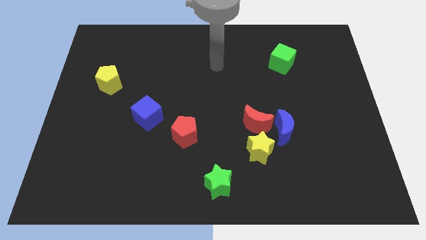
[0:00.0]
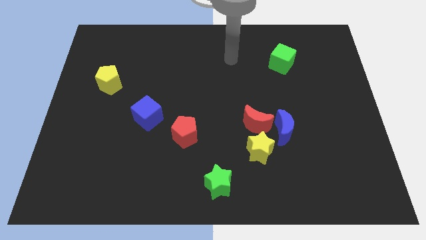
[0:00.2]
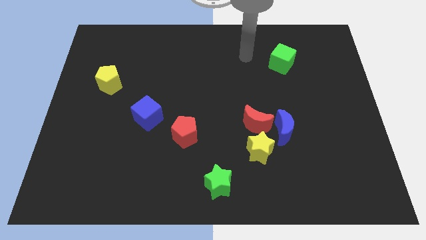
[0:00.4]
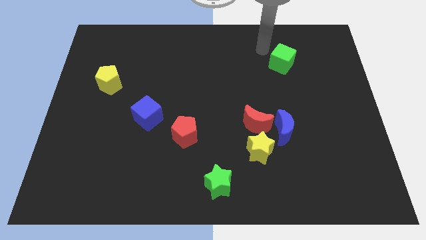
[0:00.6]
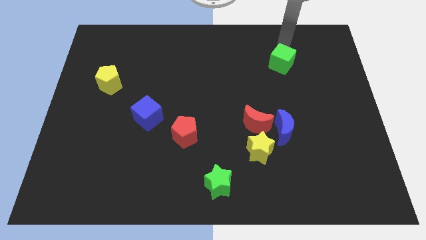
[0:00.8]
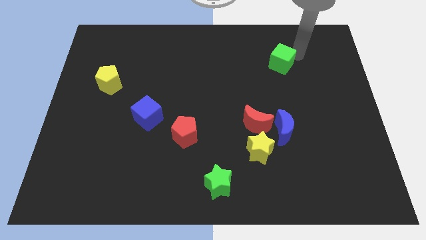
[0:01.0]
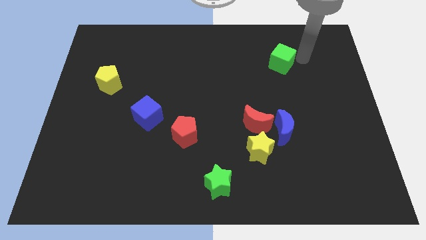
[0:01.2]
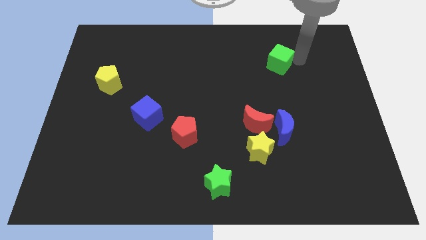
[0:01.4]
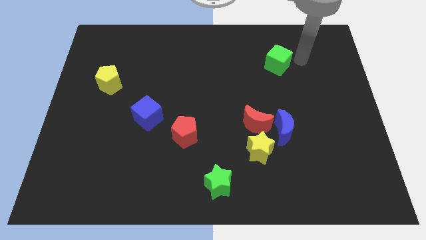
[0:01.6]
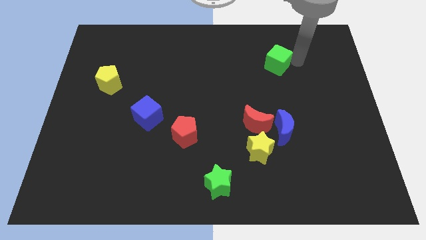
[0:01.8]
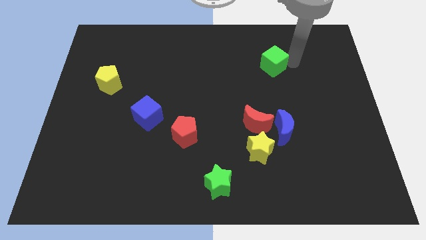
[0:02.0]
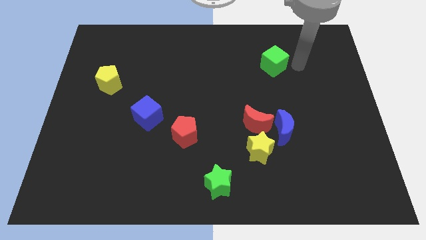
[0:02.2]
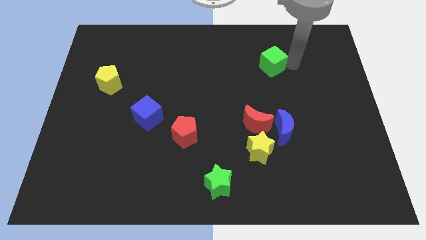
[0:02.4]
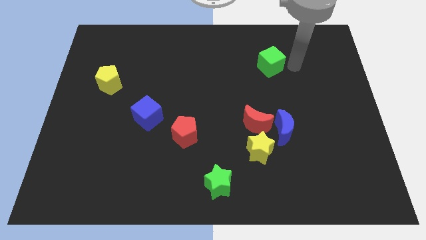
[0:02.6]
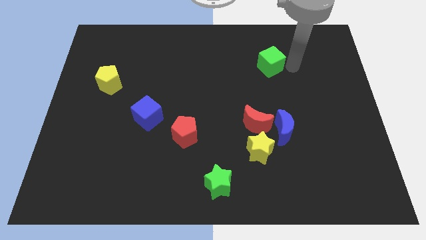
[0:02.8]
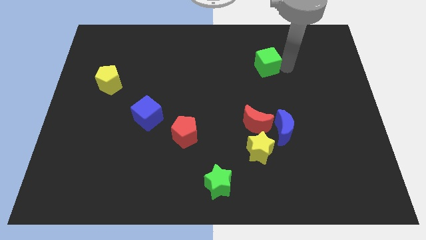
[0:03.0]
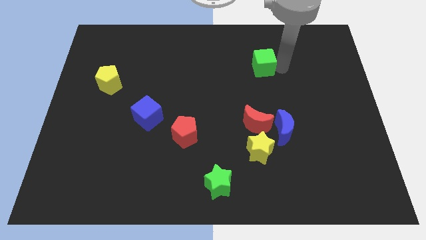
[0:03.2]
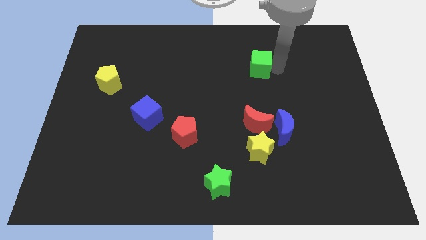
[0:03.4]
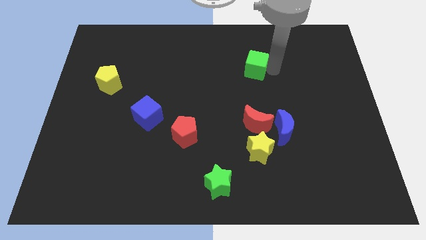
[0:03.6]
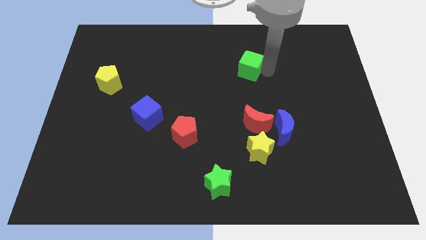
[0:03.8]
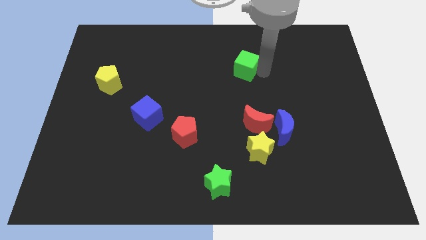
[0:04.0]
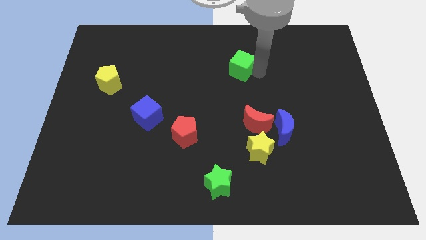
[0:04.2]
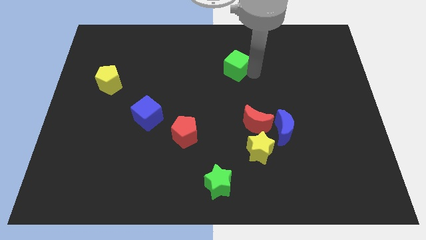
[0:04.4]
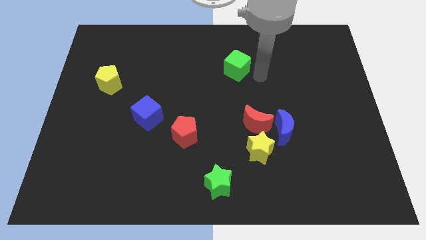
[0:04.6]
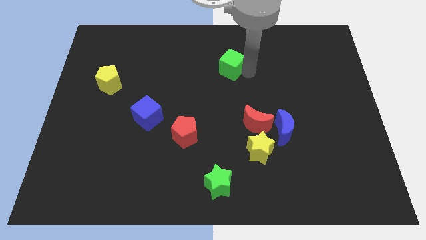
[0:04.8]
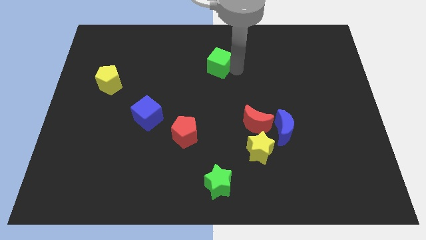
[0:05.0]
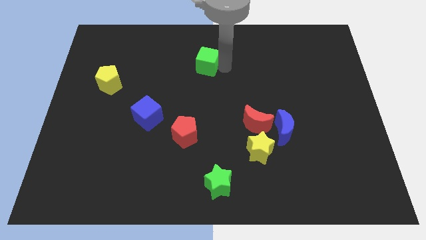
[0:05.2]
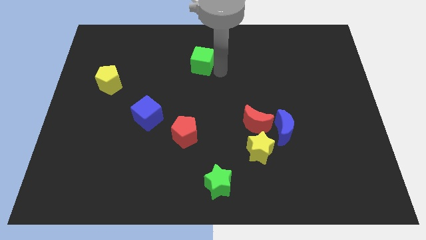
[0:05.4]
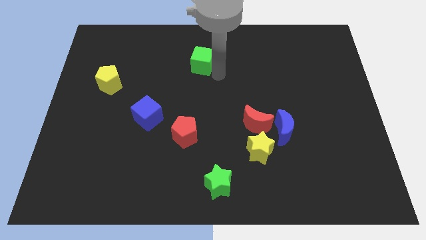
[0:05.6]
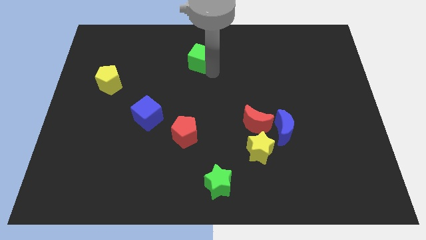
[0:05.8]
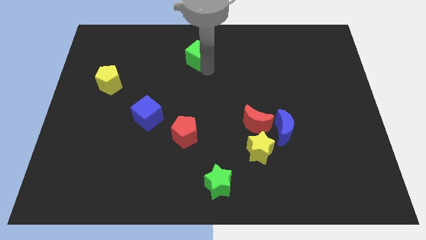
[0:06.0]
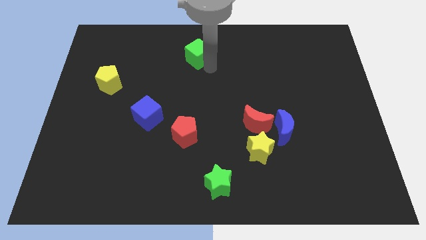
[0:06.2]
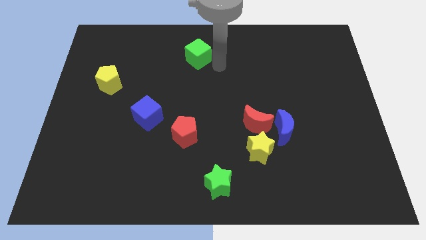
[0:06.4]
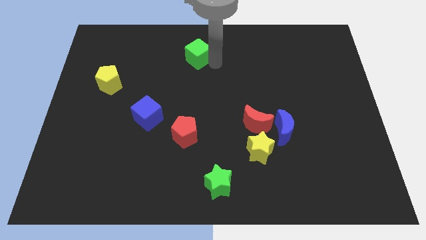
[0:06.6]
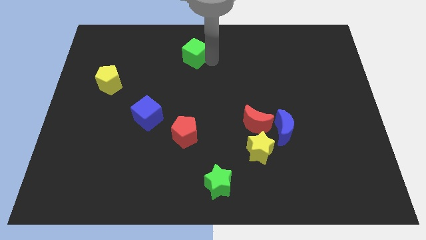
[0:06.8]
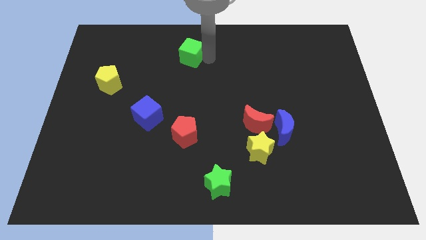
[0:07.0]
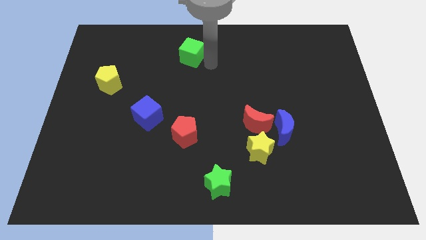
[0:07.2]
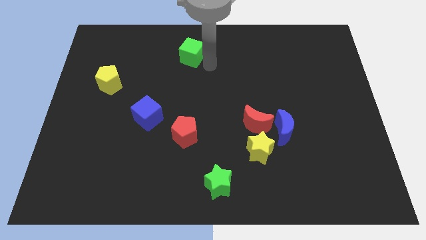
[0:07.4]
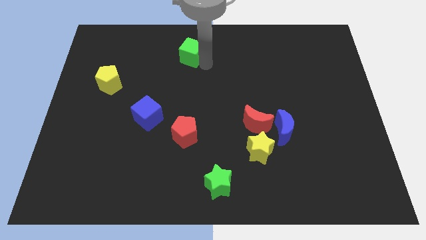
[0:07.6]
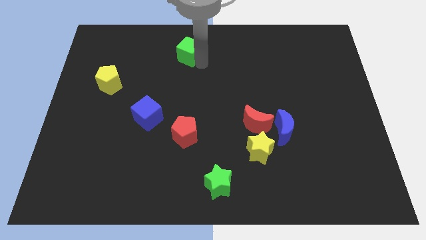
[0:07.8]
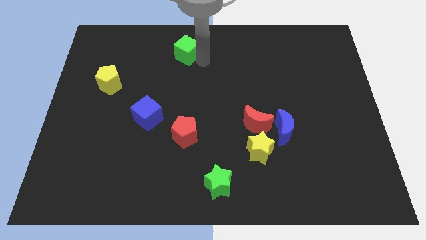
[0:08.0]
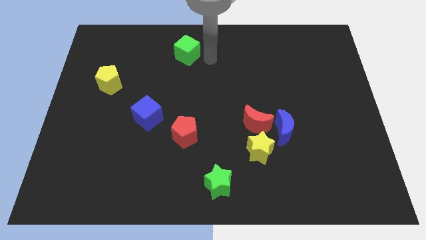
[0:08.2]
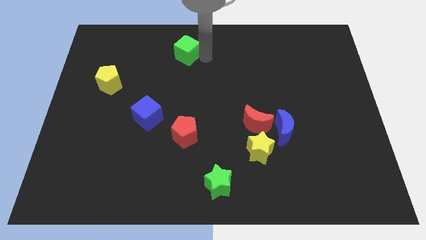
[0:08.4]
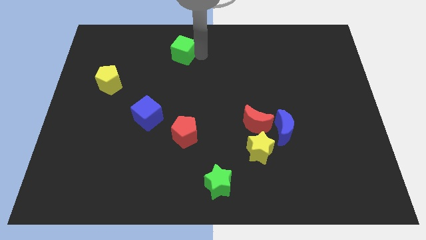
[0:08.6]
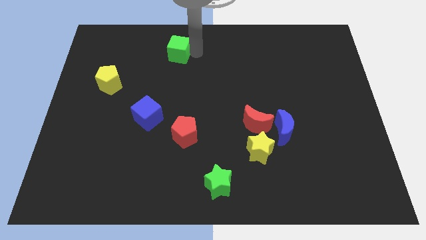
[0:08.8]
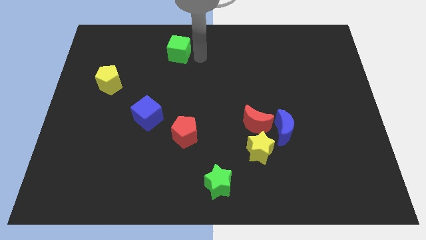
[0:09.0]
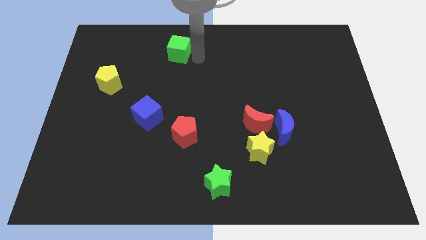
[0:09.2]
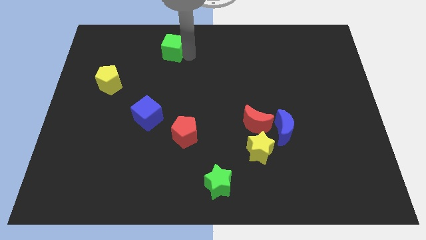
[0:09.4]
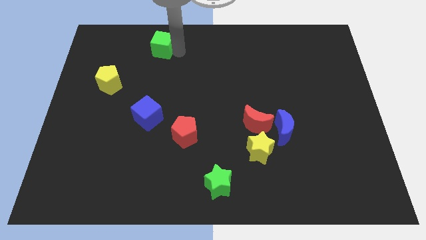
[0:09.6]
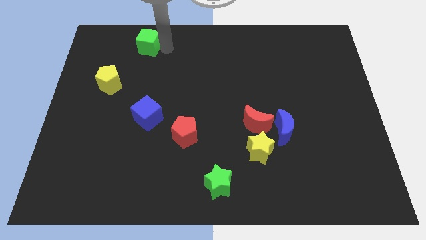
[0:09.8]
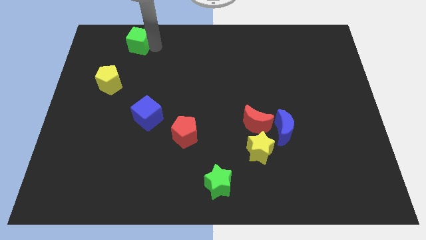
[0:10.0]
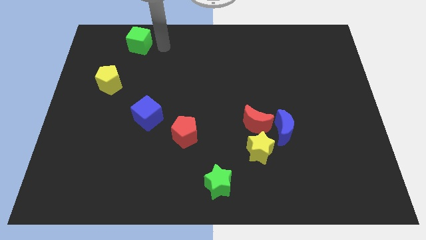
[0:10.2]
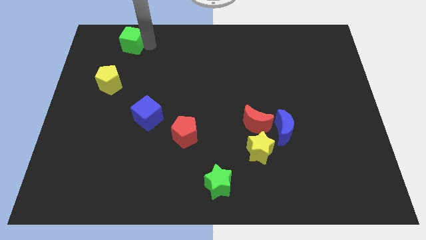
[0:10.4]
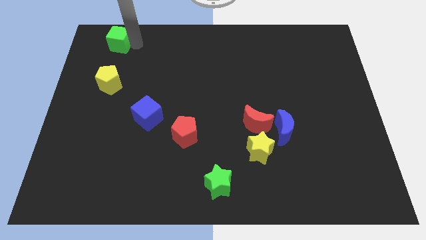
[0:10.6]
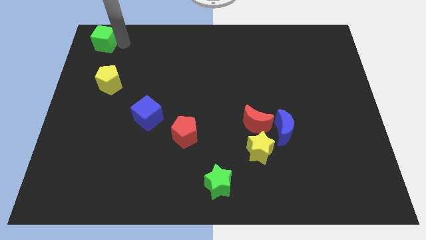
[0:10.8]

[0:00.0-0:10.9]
slide the green cube to the top left corner

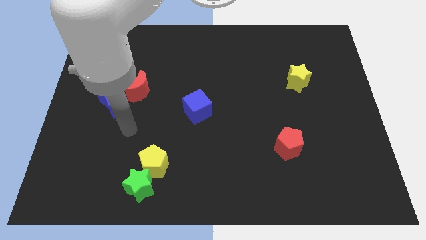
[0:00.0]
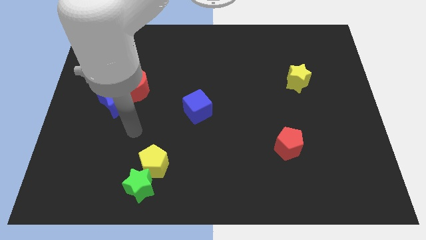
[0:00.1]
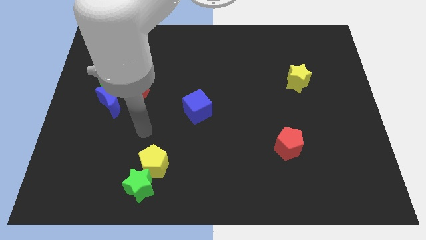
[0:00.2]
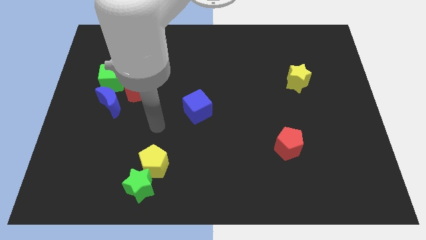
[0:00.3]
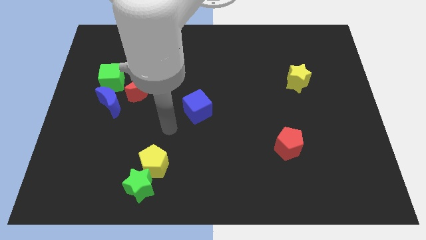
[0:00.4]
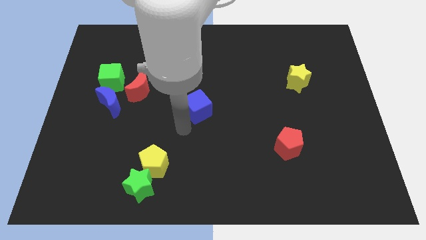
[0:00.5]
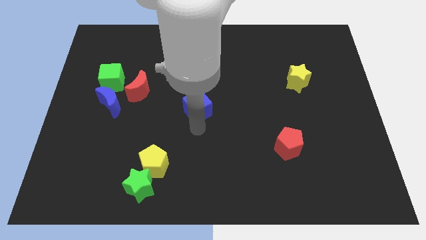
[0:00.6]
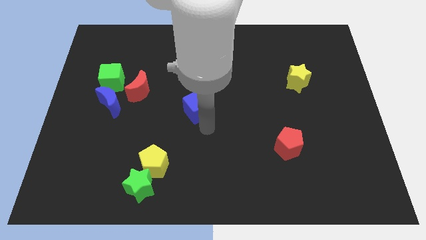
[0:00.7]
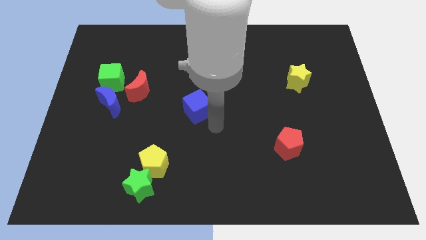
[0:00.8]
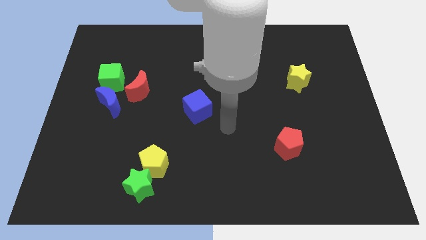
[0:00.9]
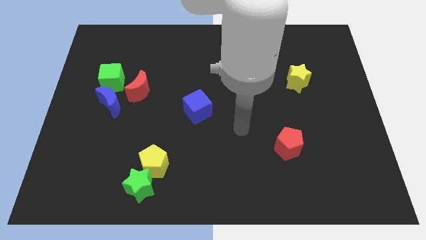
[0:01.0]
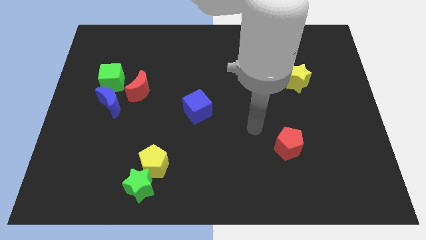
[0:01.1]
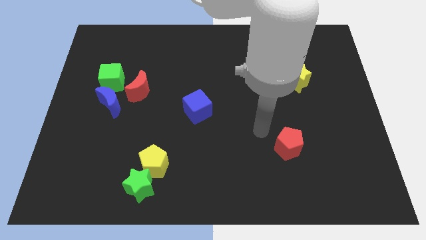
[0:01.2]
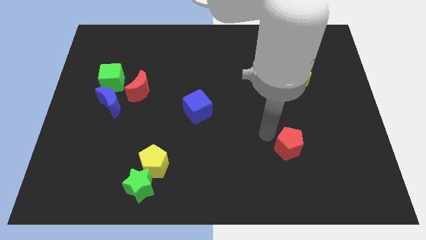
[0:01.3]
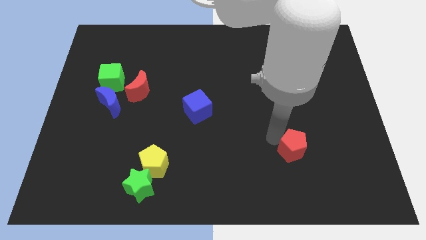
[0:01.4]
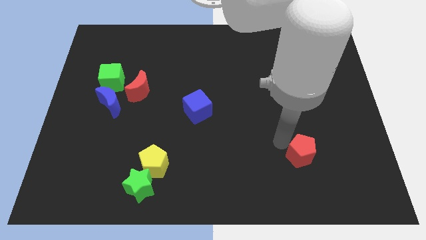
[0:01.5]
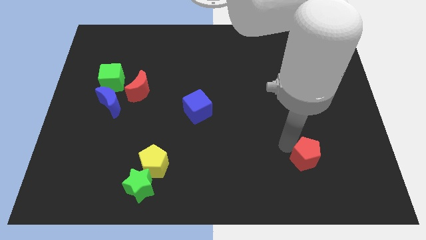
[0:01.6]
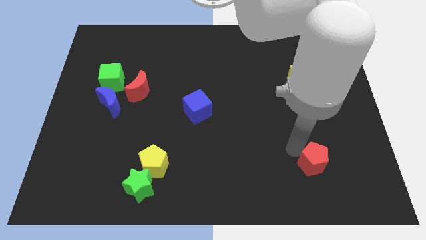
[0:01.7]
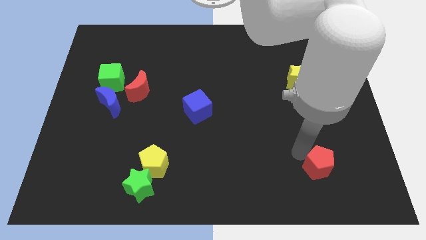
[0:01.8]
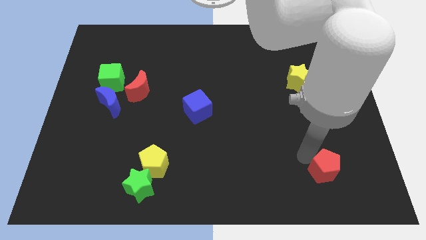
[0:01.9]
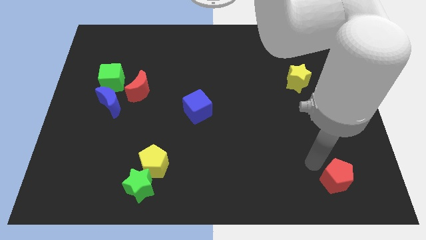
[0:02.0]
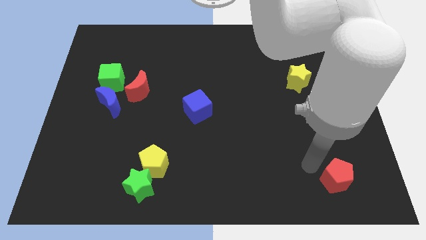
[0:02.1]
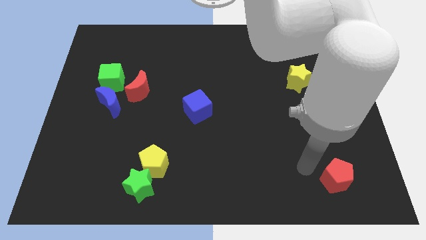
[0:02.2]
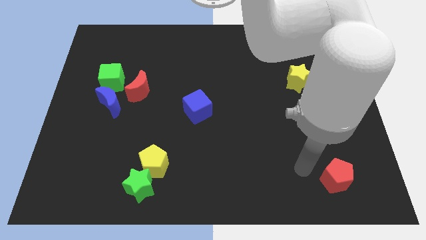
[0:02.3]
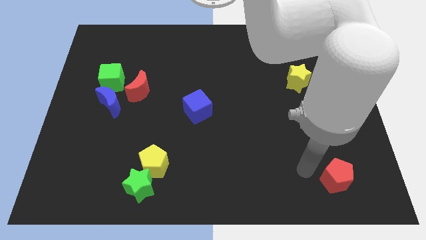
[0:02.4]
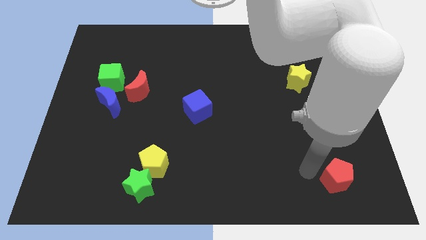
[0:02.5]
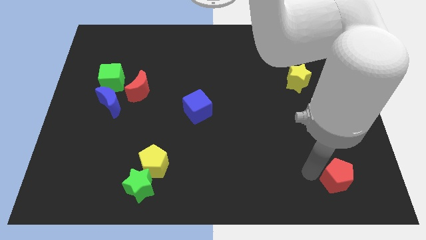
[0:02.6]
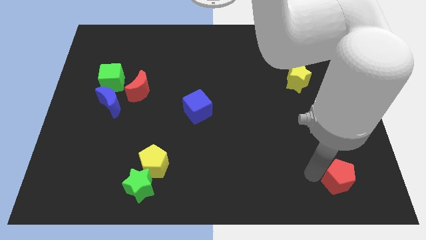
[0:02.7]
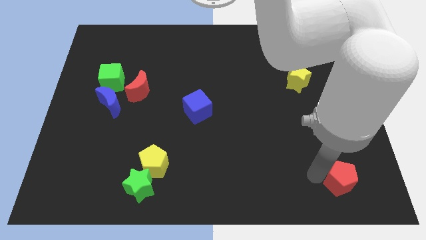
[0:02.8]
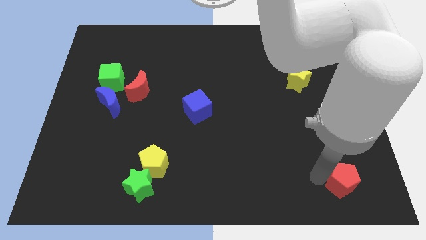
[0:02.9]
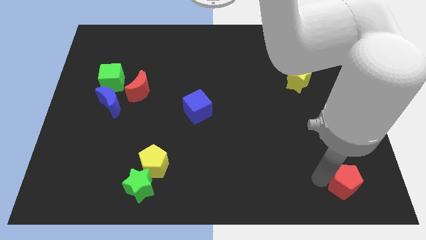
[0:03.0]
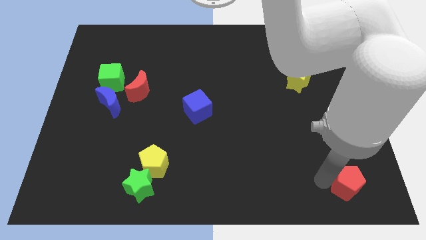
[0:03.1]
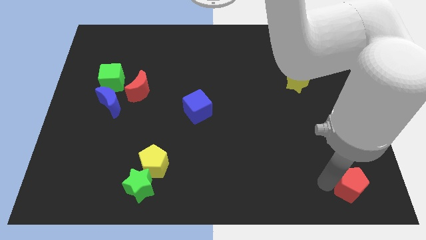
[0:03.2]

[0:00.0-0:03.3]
push the red pentagon to the bottom right of the board
